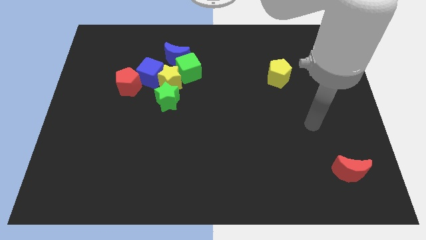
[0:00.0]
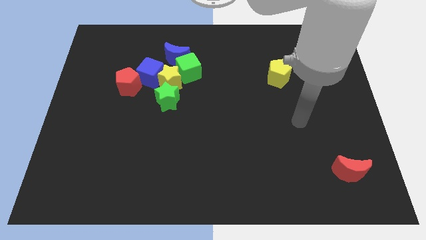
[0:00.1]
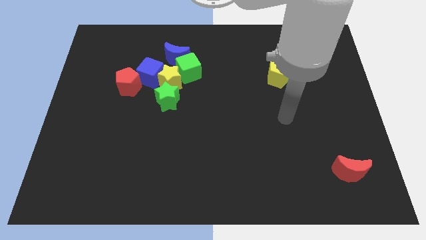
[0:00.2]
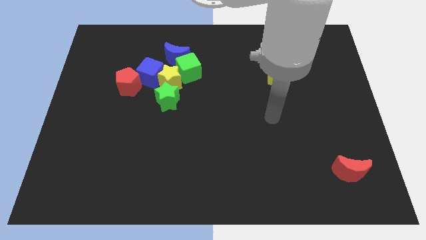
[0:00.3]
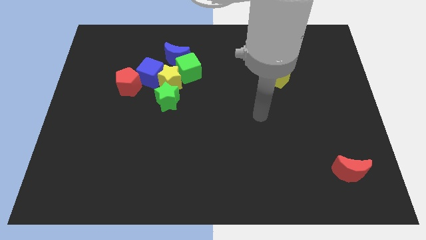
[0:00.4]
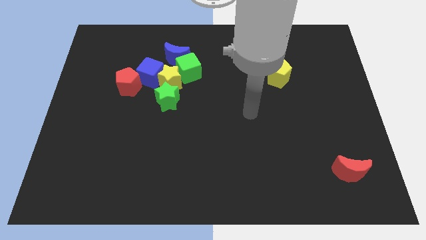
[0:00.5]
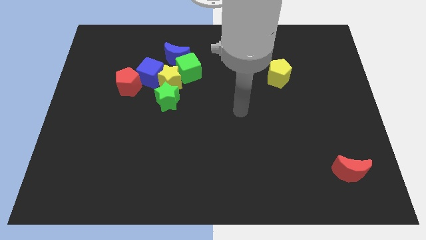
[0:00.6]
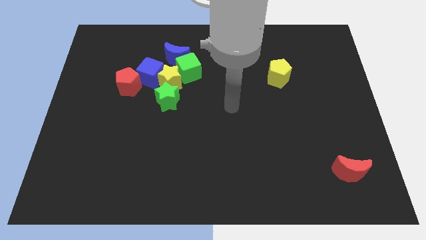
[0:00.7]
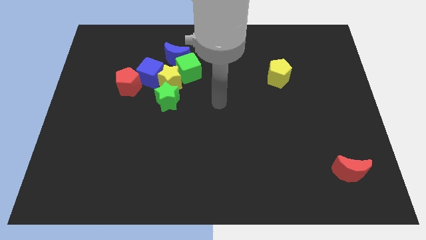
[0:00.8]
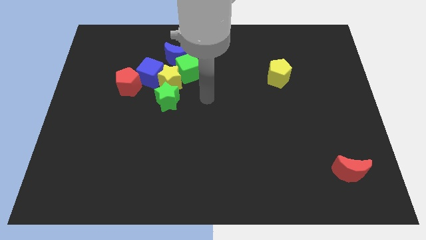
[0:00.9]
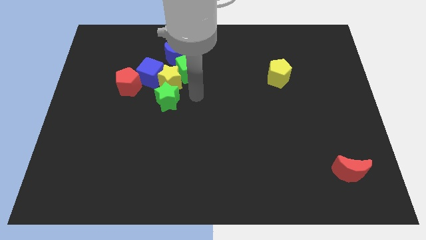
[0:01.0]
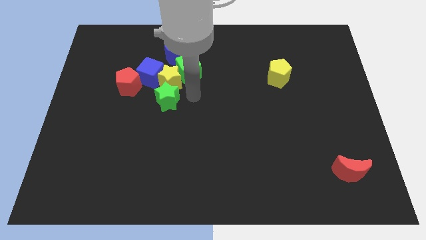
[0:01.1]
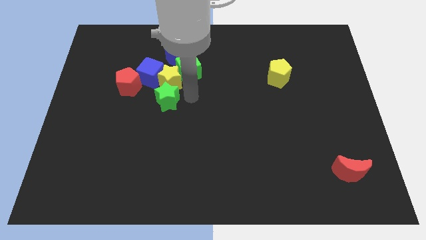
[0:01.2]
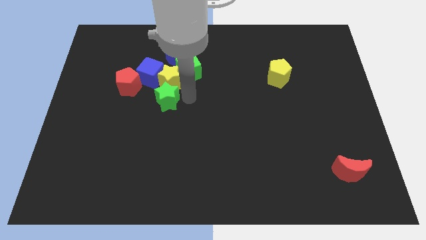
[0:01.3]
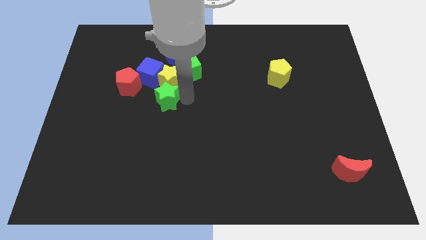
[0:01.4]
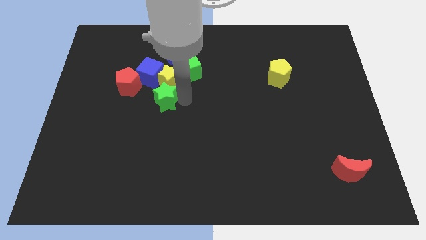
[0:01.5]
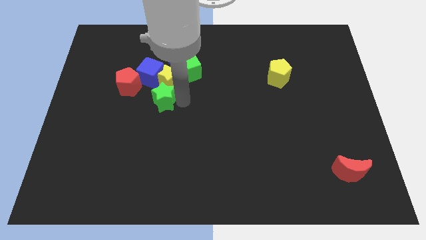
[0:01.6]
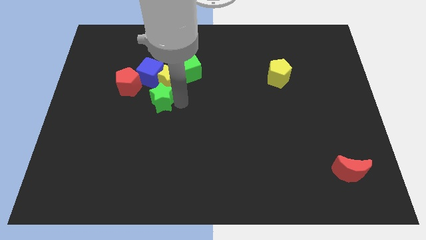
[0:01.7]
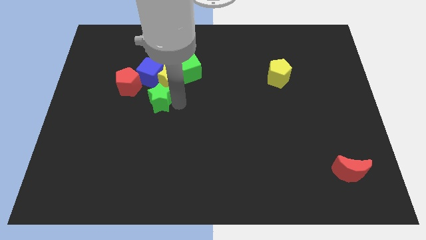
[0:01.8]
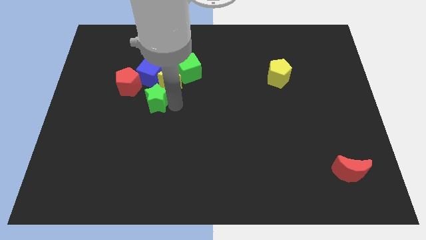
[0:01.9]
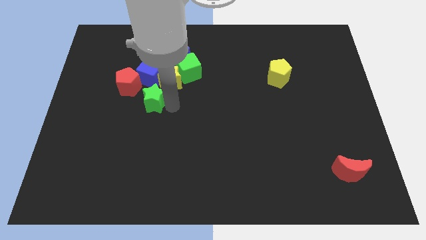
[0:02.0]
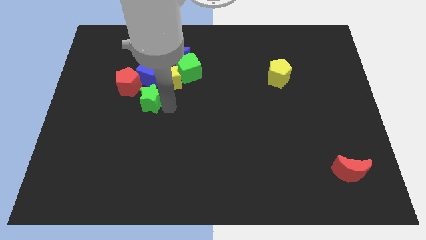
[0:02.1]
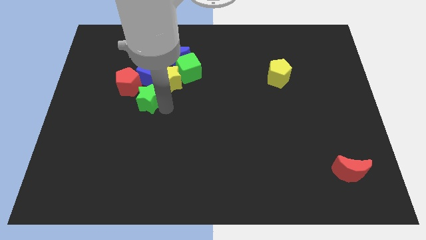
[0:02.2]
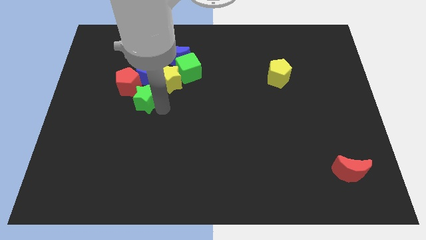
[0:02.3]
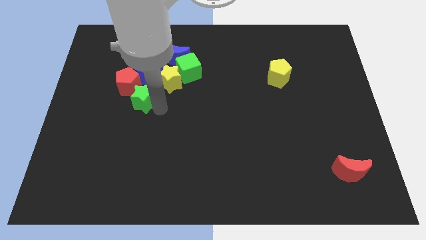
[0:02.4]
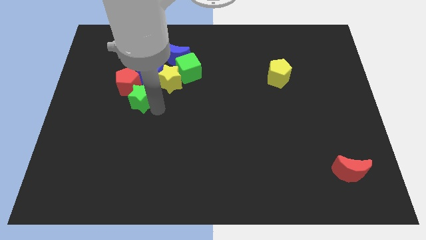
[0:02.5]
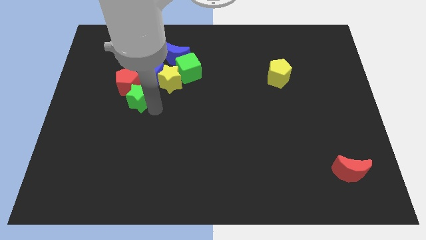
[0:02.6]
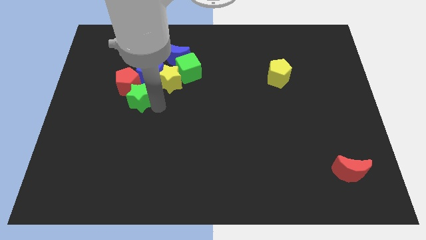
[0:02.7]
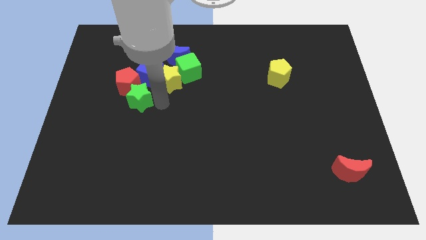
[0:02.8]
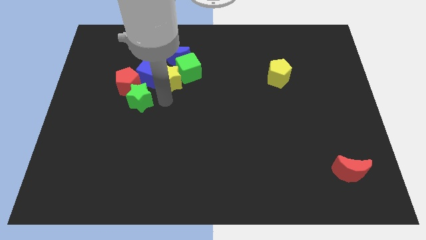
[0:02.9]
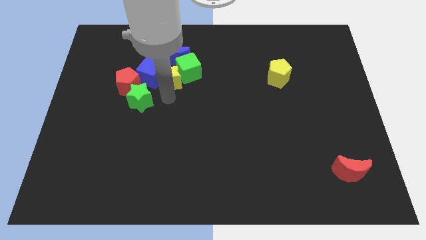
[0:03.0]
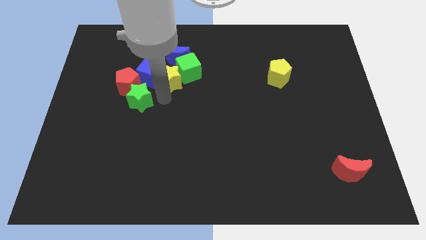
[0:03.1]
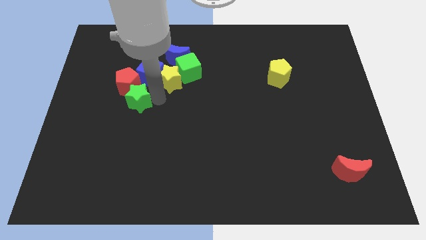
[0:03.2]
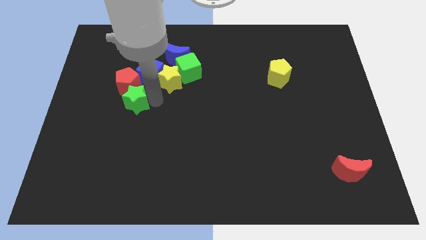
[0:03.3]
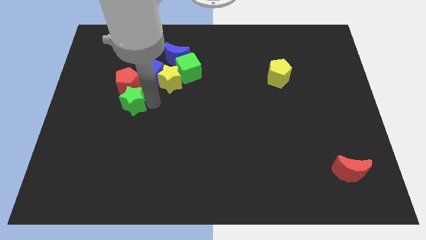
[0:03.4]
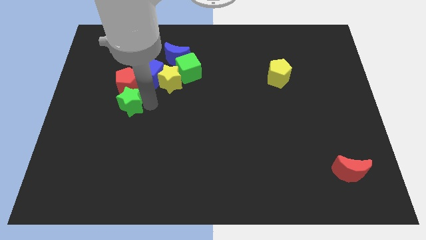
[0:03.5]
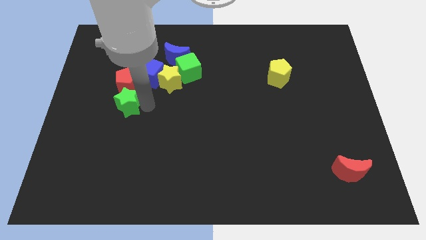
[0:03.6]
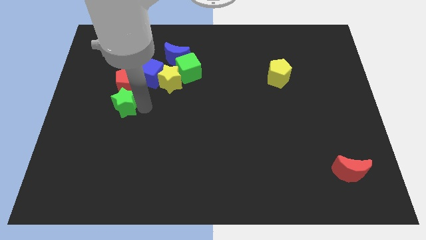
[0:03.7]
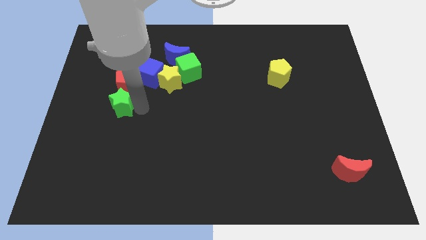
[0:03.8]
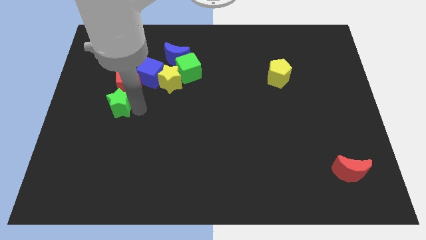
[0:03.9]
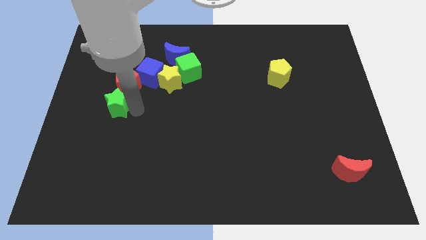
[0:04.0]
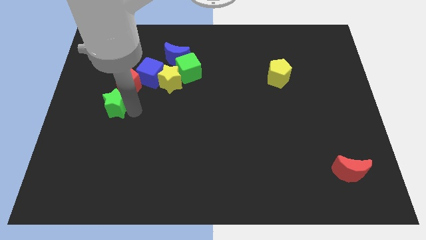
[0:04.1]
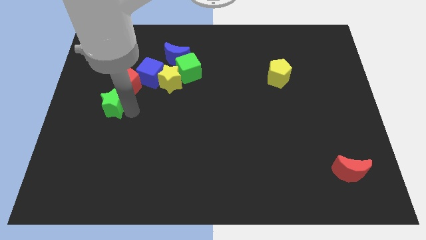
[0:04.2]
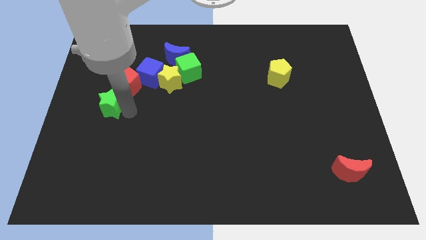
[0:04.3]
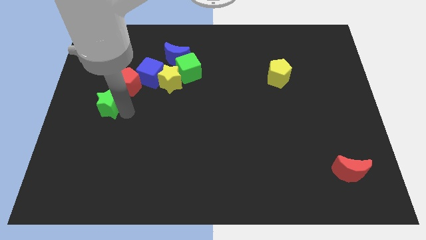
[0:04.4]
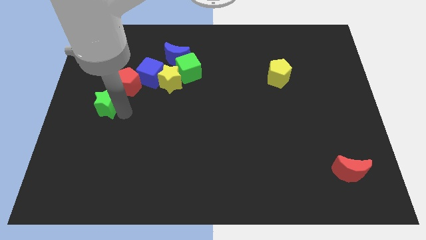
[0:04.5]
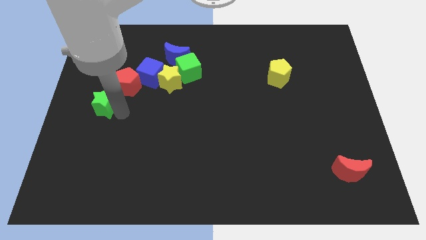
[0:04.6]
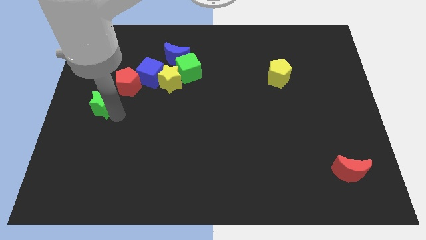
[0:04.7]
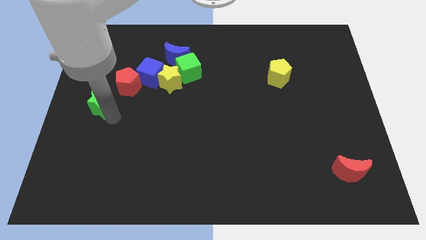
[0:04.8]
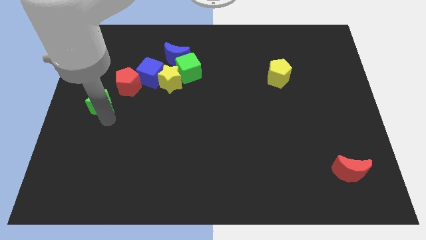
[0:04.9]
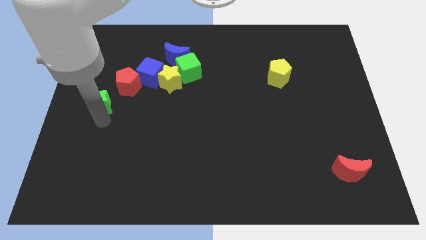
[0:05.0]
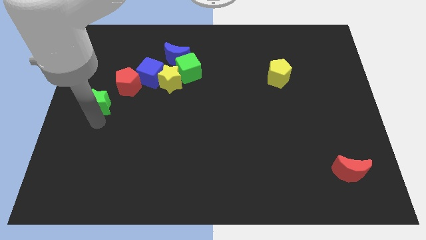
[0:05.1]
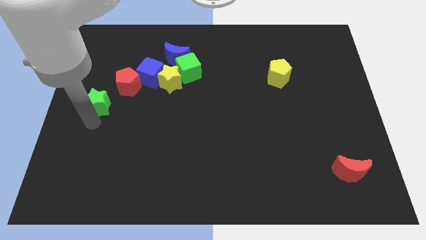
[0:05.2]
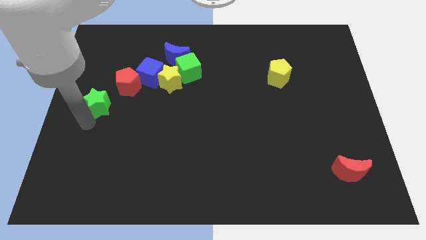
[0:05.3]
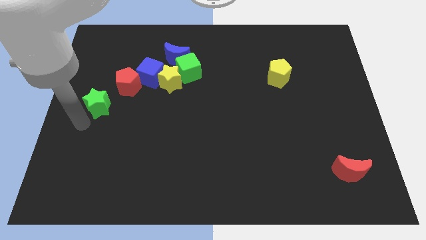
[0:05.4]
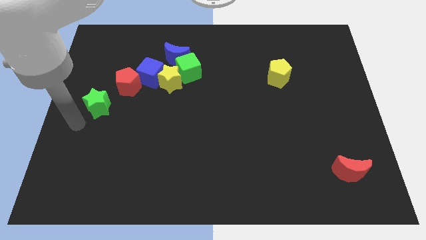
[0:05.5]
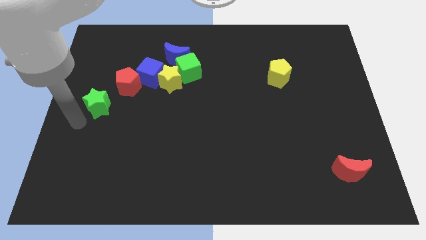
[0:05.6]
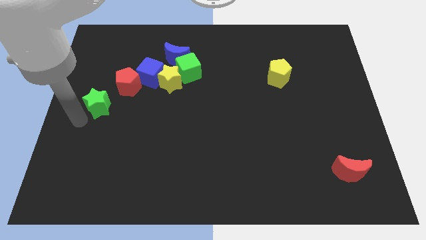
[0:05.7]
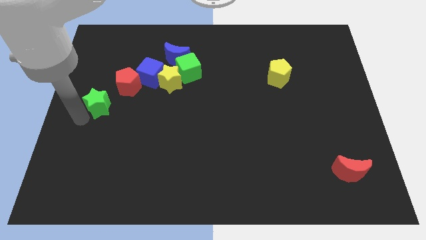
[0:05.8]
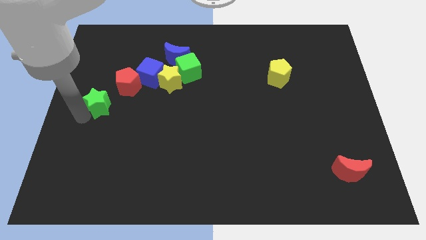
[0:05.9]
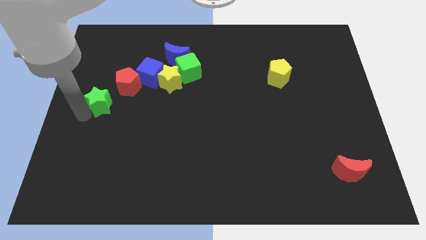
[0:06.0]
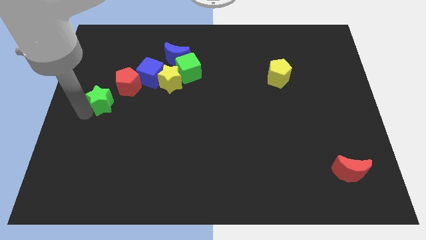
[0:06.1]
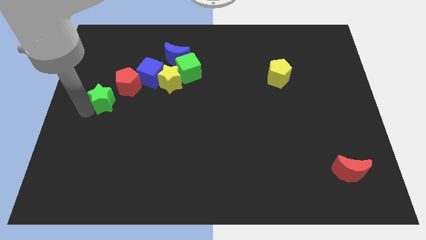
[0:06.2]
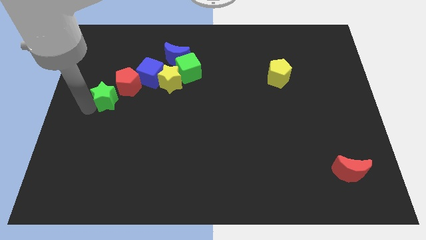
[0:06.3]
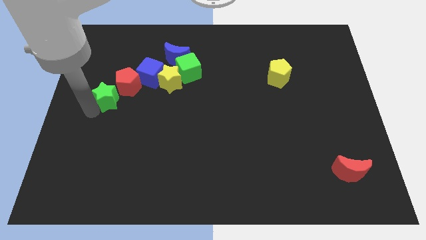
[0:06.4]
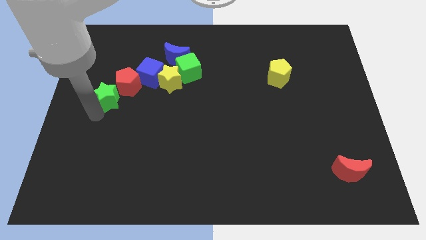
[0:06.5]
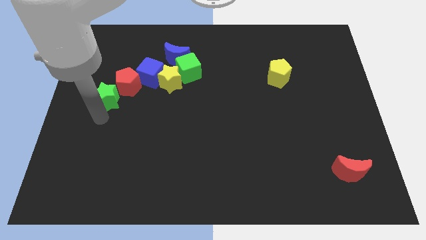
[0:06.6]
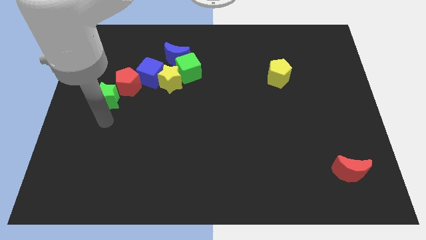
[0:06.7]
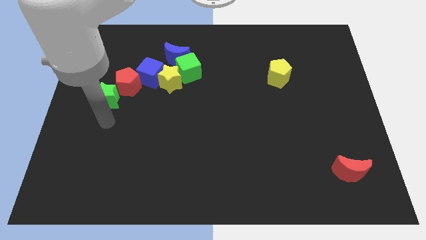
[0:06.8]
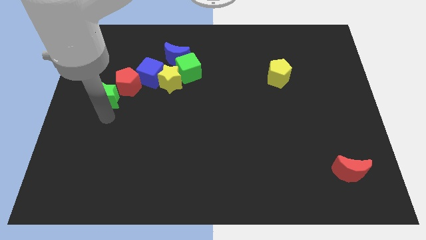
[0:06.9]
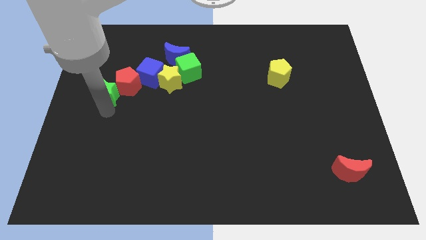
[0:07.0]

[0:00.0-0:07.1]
slightly slide the green star upwards and to the left

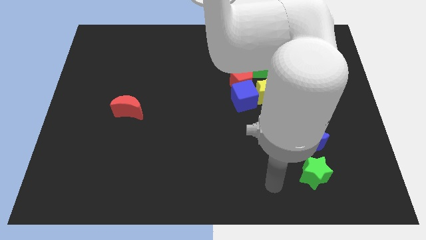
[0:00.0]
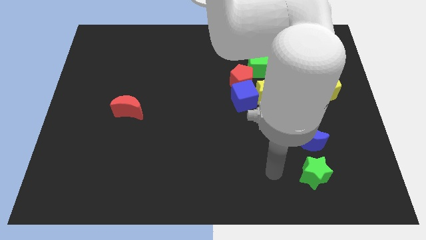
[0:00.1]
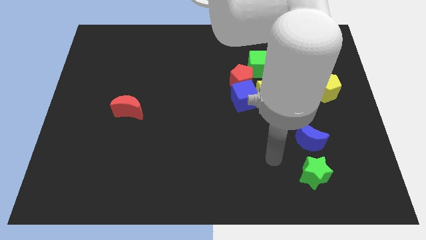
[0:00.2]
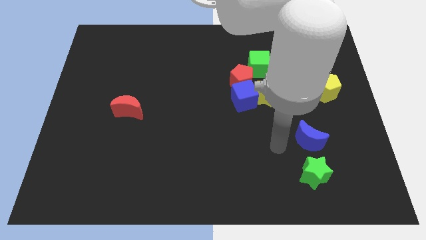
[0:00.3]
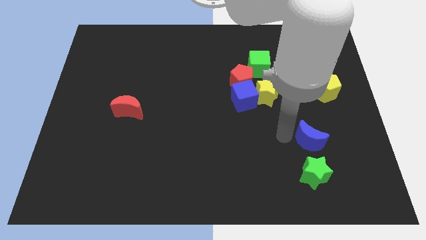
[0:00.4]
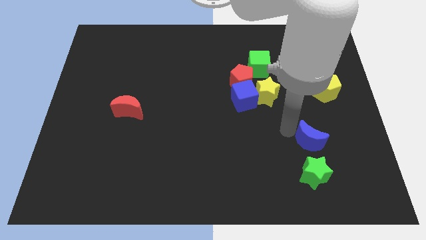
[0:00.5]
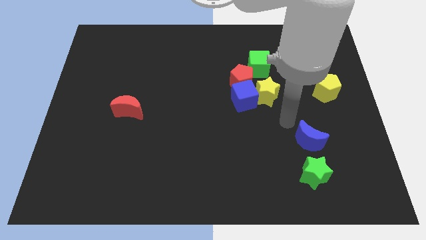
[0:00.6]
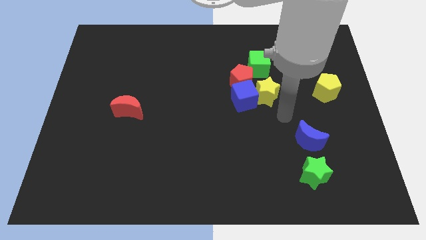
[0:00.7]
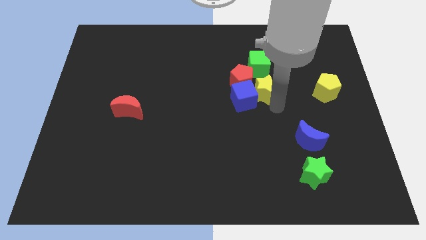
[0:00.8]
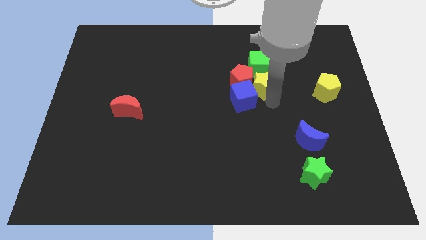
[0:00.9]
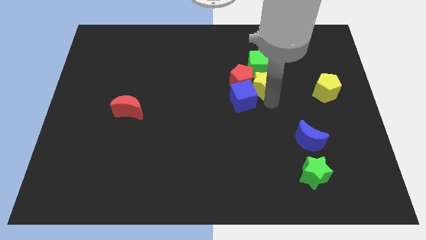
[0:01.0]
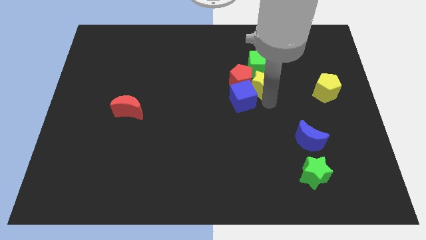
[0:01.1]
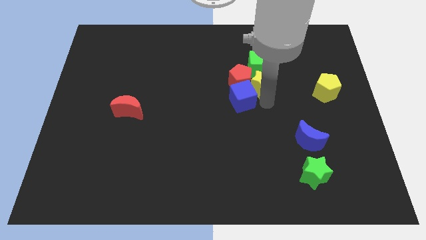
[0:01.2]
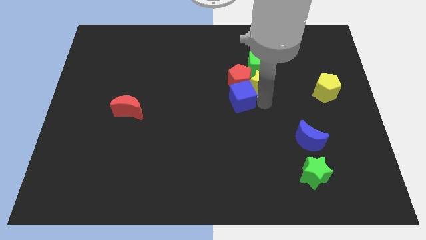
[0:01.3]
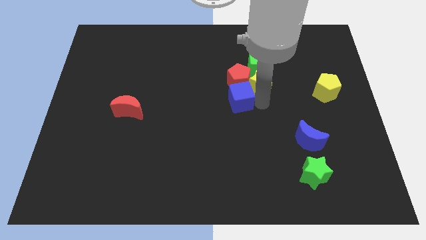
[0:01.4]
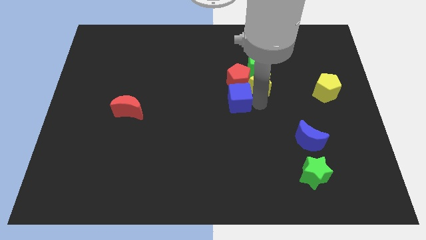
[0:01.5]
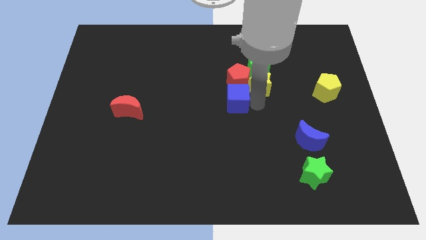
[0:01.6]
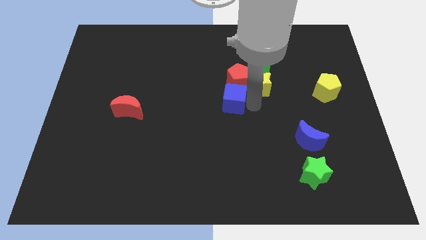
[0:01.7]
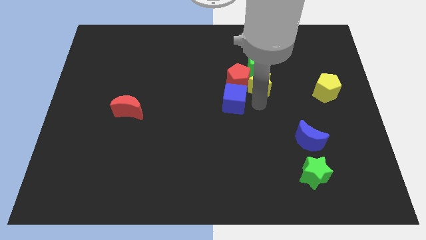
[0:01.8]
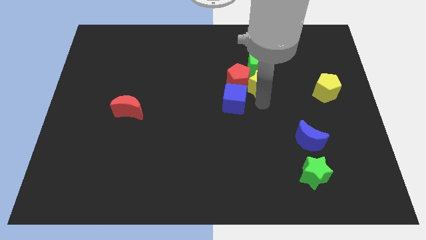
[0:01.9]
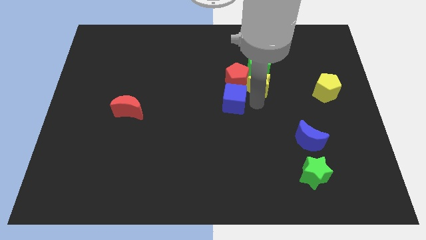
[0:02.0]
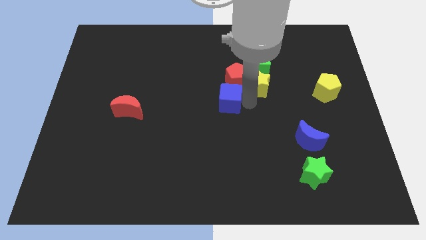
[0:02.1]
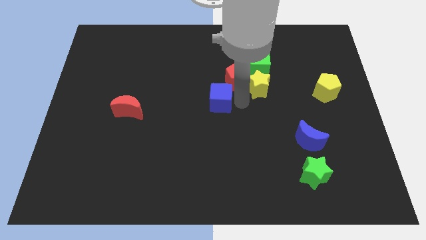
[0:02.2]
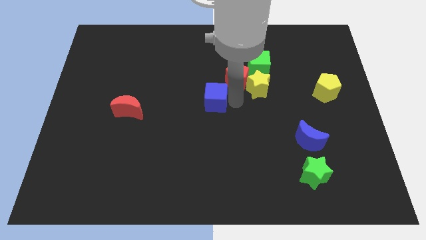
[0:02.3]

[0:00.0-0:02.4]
slightly slide the blue cube to the left
